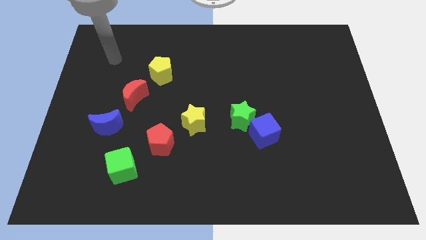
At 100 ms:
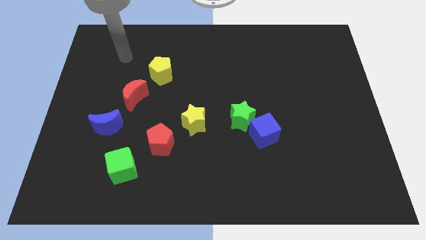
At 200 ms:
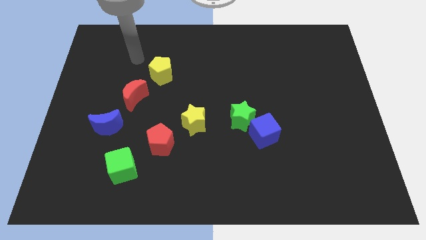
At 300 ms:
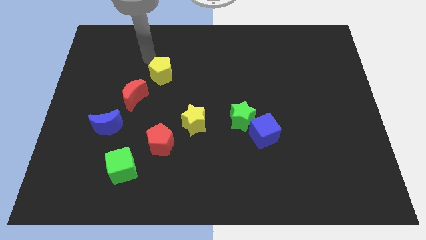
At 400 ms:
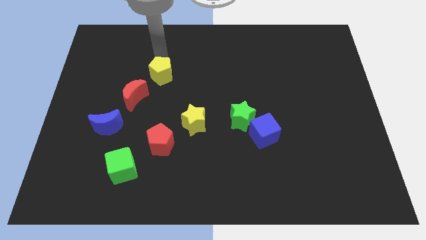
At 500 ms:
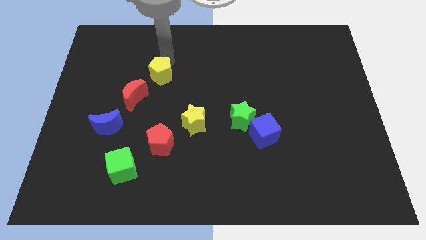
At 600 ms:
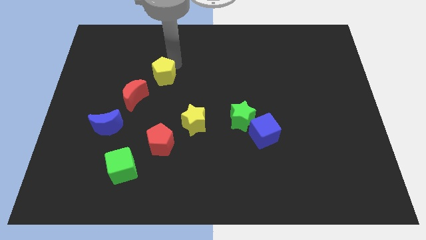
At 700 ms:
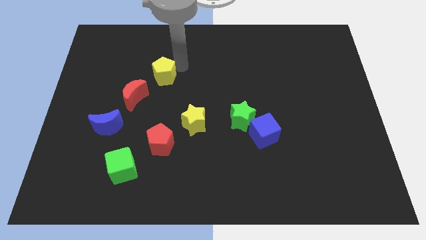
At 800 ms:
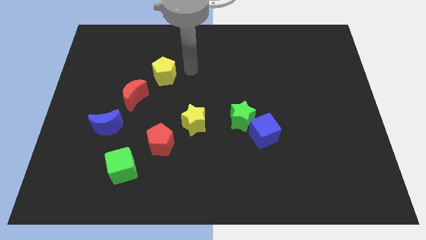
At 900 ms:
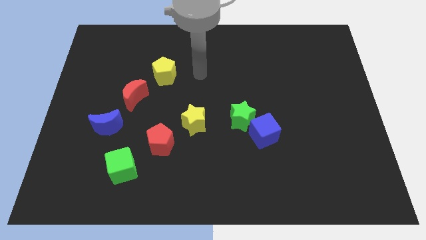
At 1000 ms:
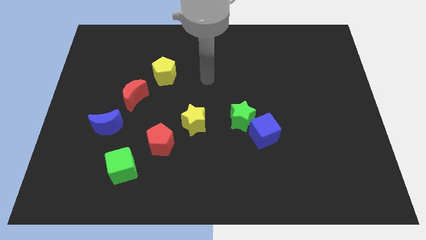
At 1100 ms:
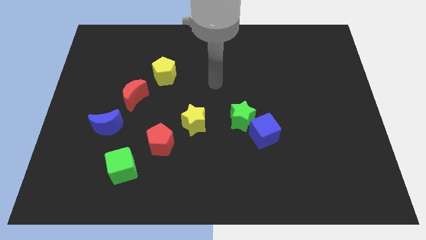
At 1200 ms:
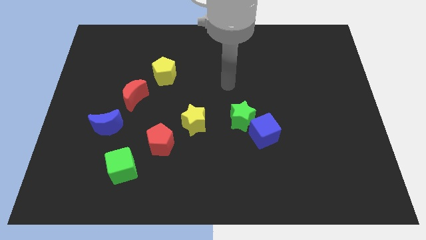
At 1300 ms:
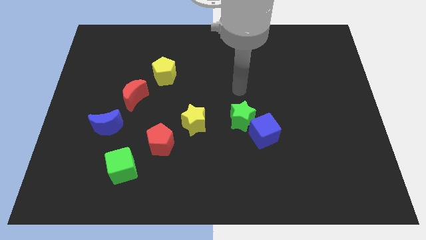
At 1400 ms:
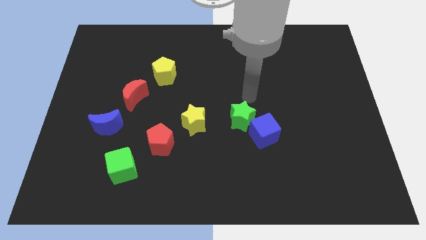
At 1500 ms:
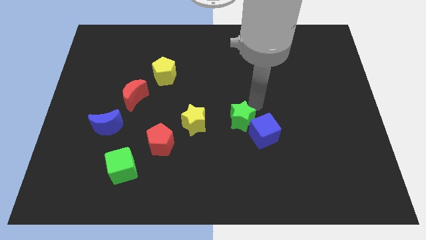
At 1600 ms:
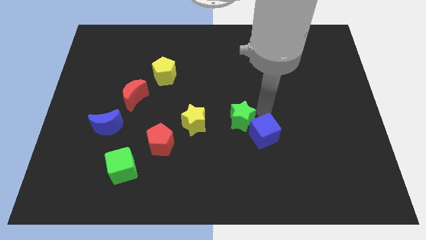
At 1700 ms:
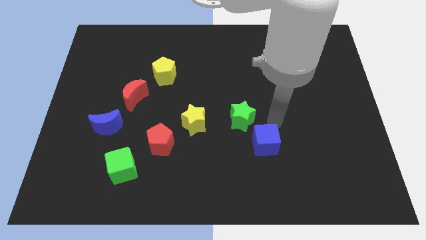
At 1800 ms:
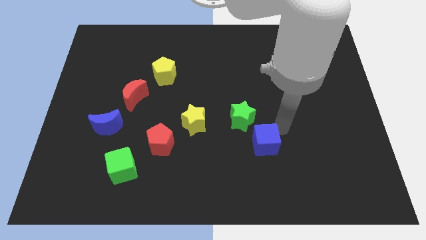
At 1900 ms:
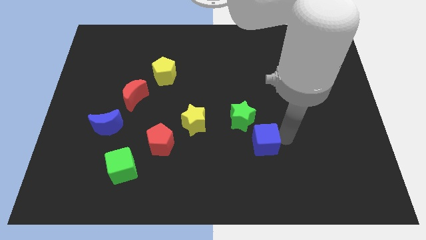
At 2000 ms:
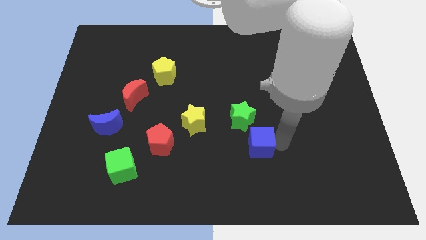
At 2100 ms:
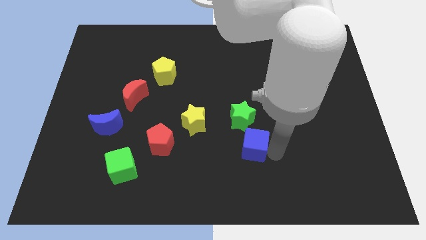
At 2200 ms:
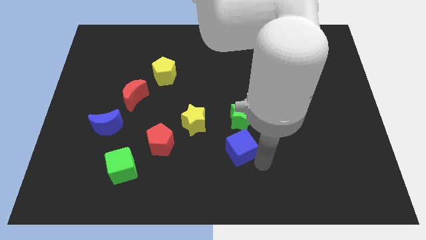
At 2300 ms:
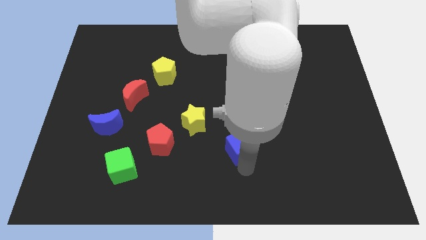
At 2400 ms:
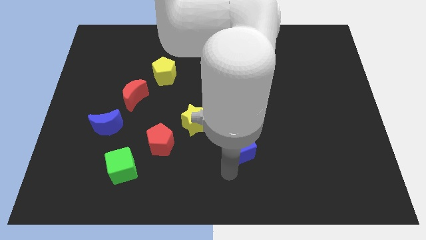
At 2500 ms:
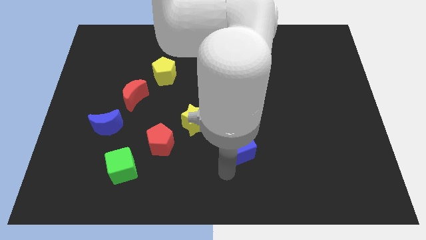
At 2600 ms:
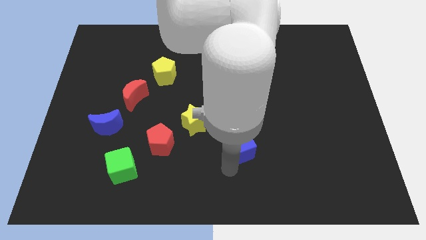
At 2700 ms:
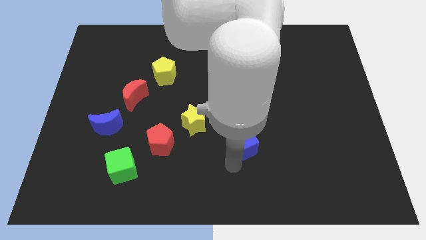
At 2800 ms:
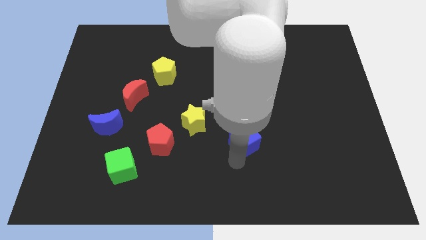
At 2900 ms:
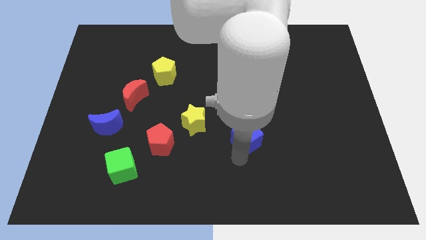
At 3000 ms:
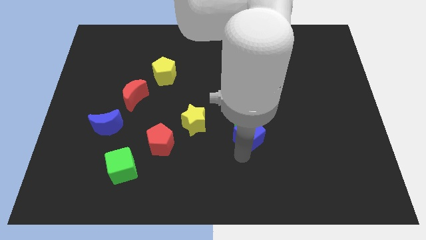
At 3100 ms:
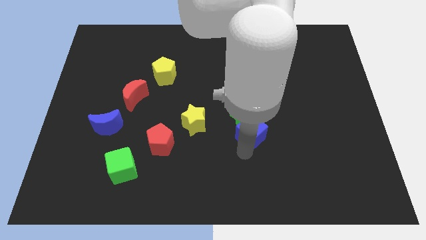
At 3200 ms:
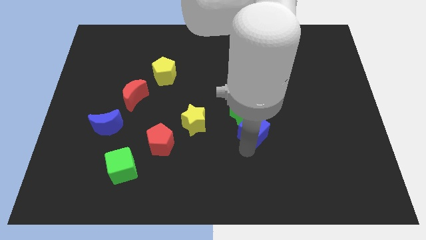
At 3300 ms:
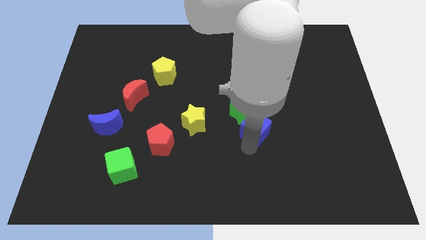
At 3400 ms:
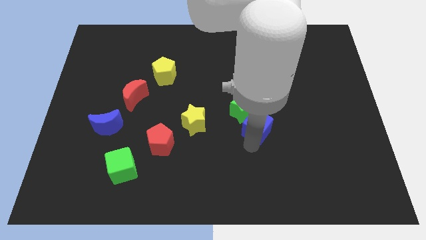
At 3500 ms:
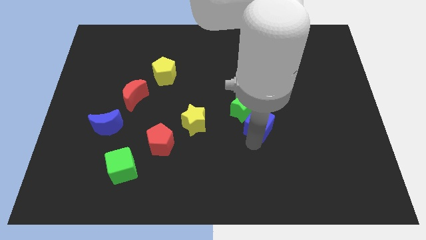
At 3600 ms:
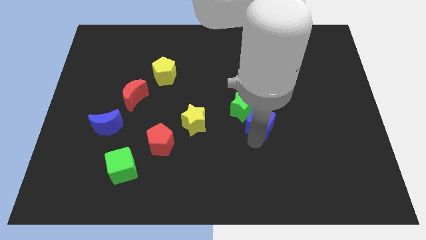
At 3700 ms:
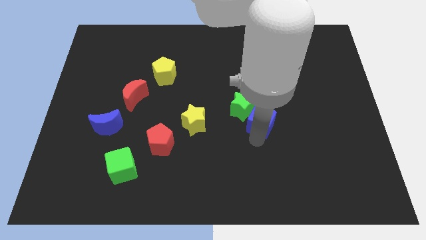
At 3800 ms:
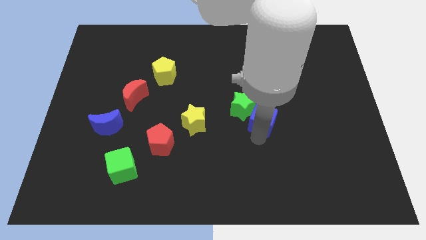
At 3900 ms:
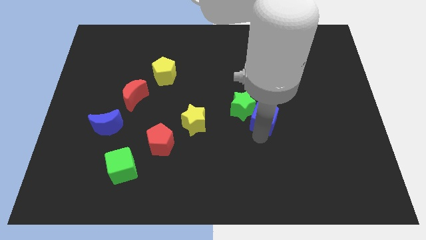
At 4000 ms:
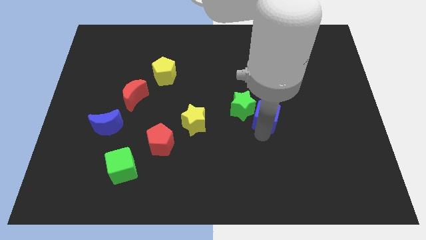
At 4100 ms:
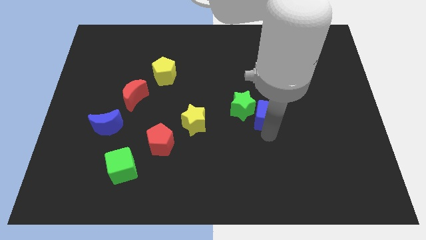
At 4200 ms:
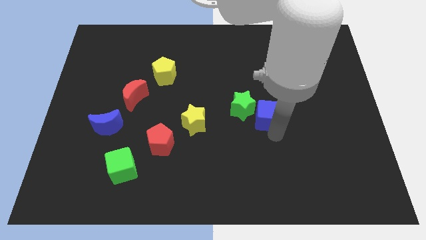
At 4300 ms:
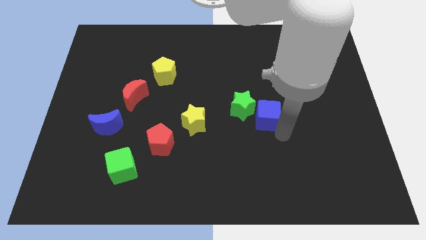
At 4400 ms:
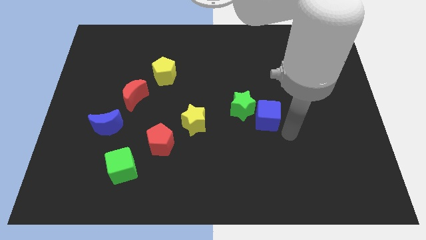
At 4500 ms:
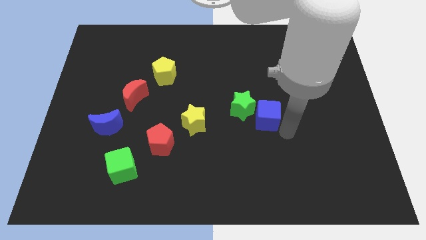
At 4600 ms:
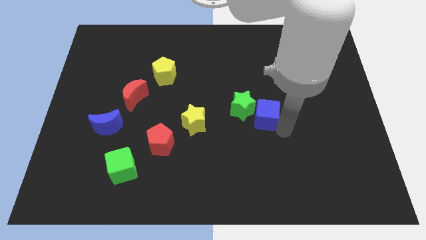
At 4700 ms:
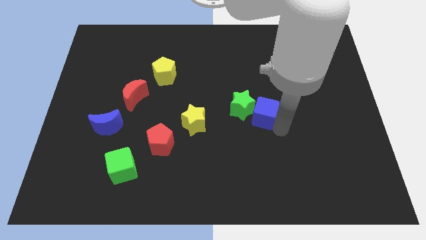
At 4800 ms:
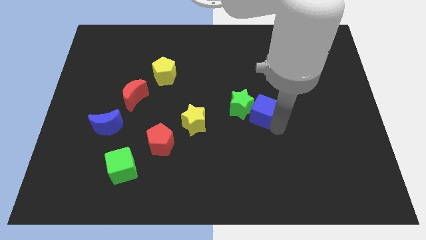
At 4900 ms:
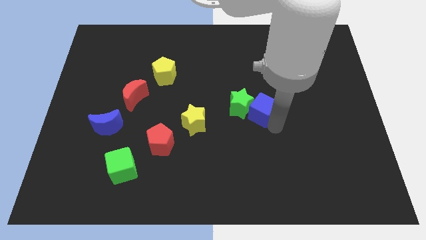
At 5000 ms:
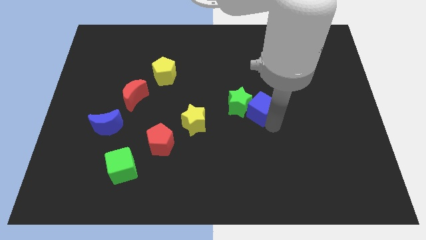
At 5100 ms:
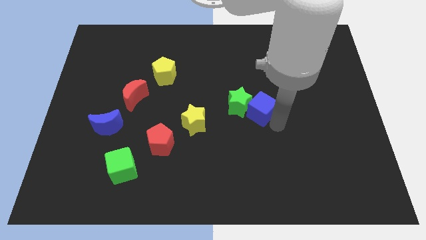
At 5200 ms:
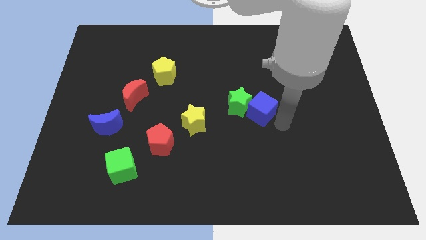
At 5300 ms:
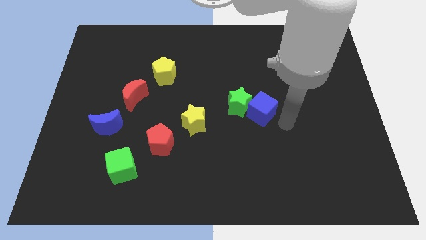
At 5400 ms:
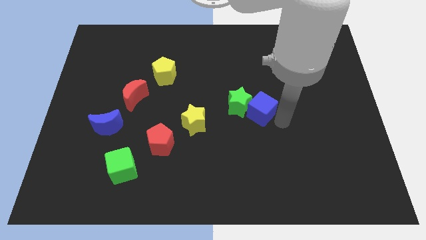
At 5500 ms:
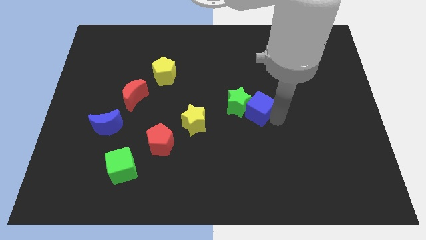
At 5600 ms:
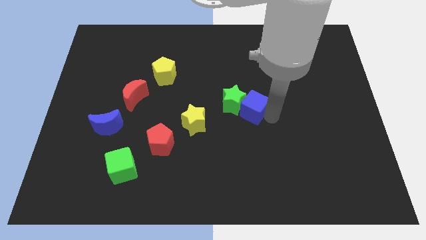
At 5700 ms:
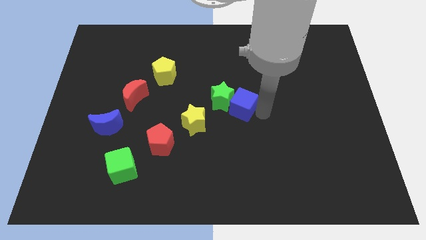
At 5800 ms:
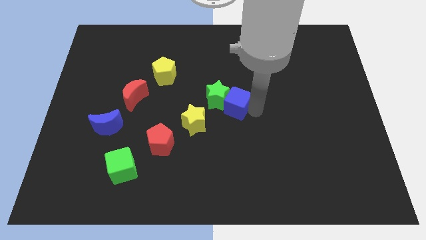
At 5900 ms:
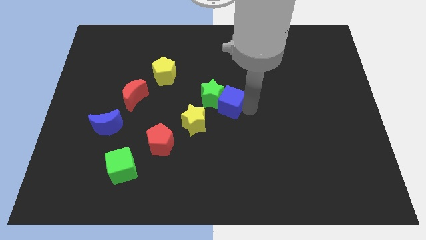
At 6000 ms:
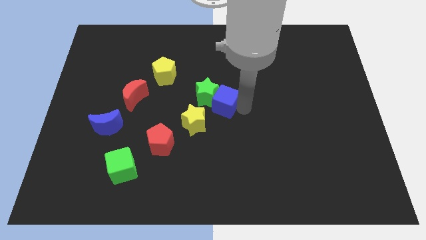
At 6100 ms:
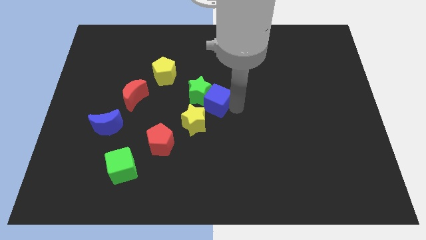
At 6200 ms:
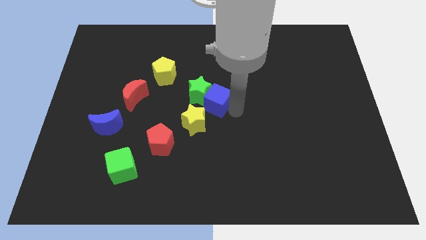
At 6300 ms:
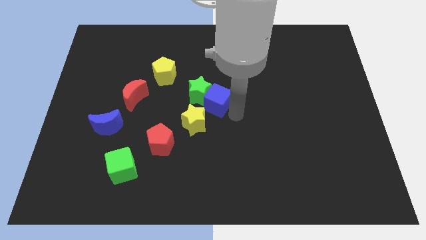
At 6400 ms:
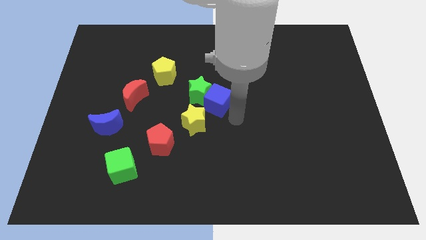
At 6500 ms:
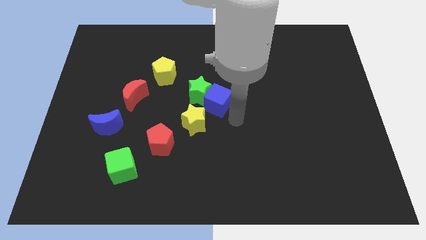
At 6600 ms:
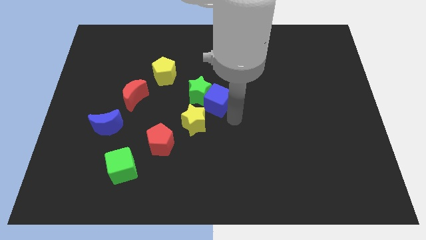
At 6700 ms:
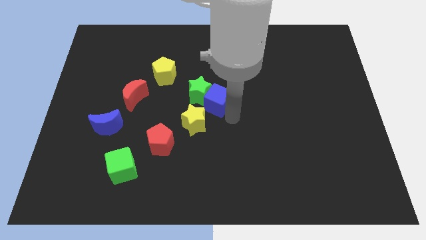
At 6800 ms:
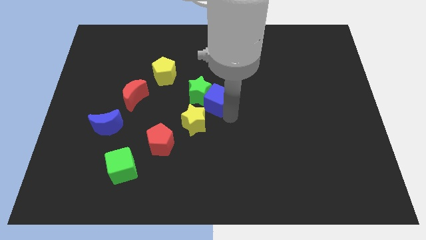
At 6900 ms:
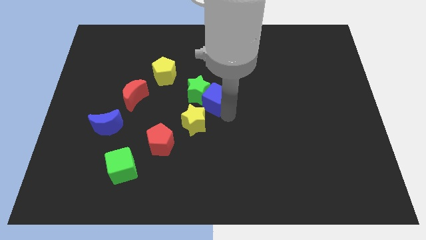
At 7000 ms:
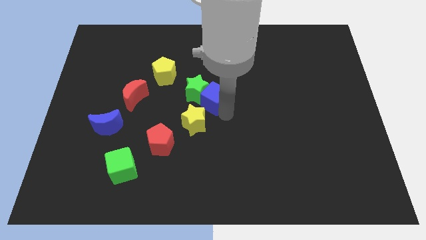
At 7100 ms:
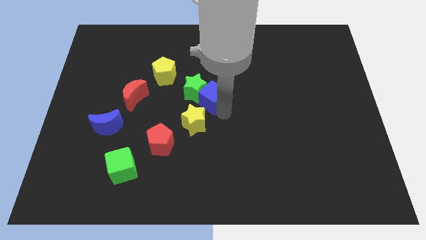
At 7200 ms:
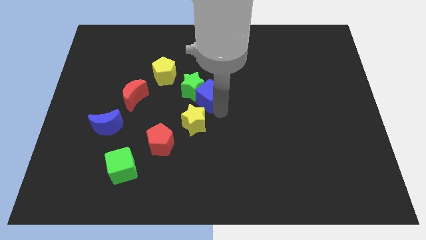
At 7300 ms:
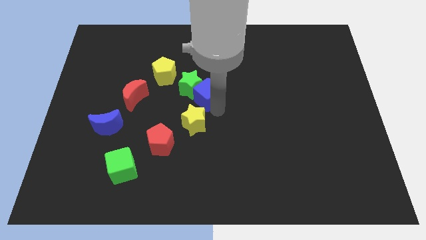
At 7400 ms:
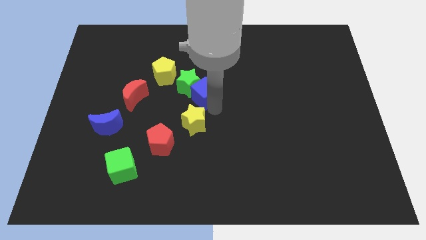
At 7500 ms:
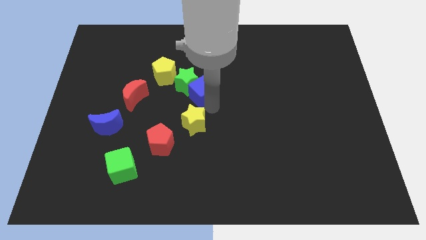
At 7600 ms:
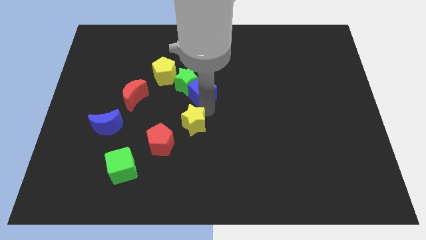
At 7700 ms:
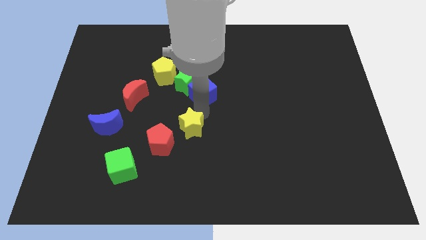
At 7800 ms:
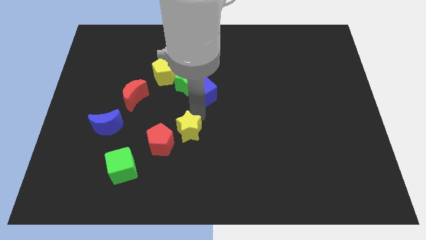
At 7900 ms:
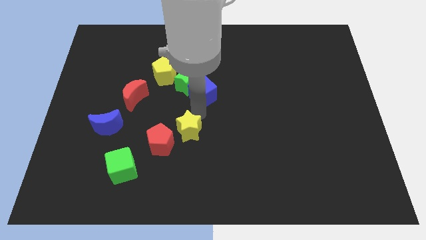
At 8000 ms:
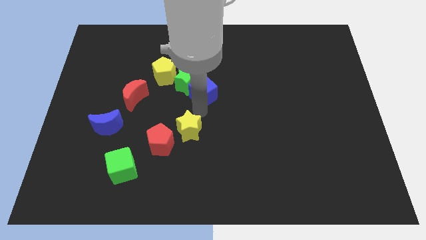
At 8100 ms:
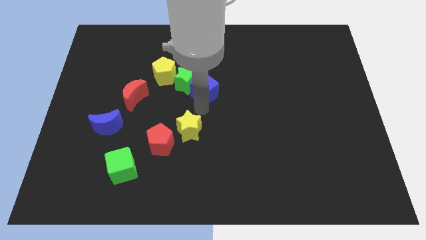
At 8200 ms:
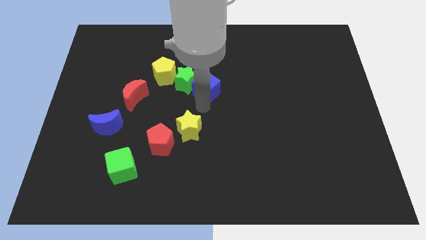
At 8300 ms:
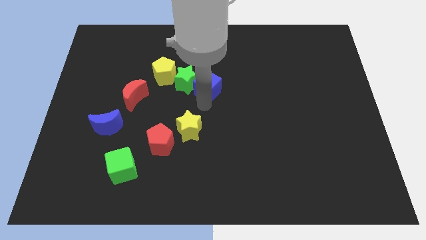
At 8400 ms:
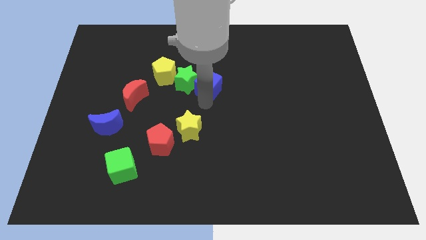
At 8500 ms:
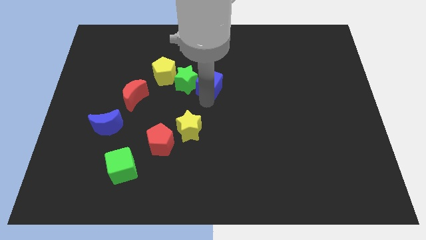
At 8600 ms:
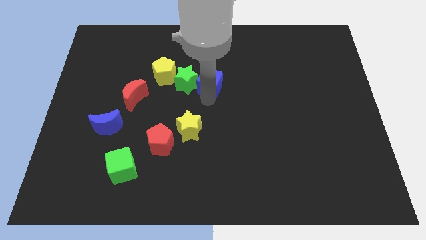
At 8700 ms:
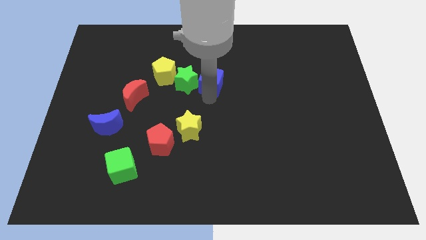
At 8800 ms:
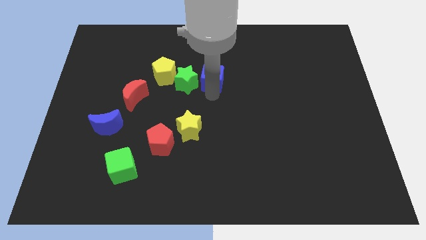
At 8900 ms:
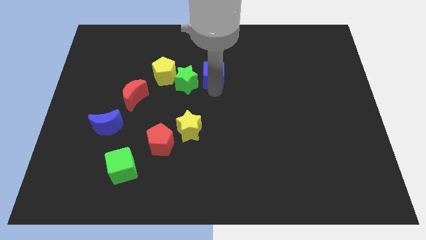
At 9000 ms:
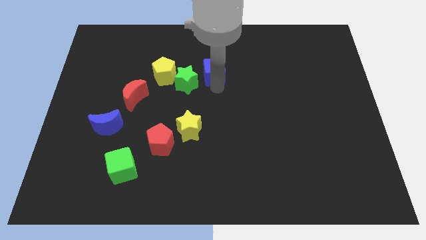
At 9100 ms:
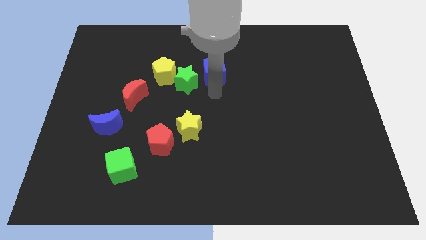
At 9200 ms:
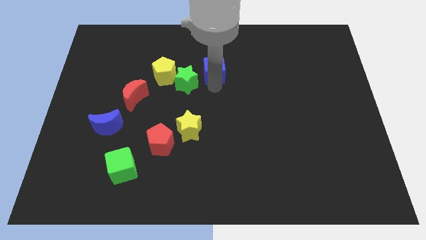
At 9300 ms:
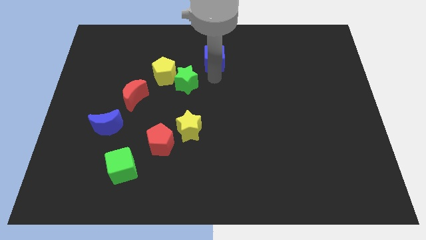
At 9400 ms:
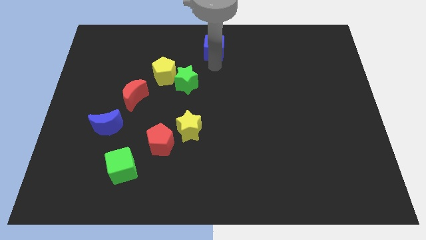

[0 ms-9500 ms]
slide the blue cube to the top side
